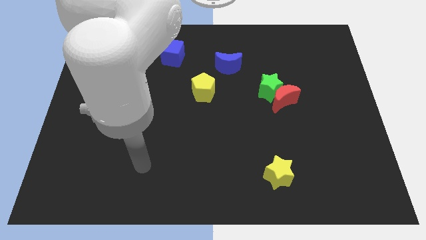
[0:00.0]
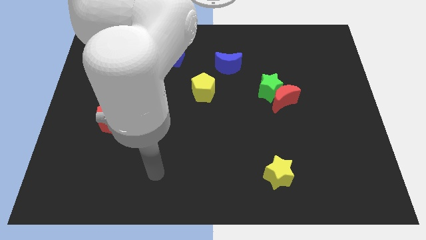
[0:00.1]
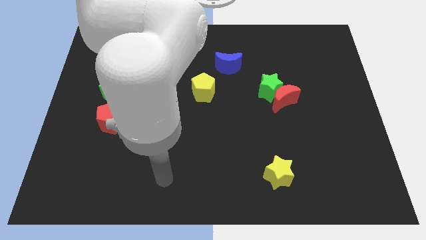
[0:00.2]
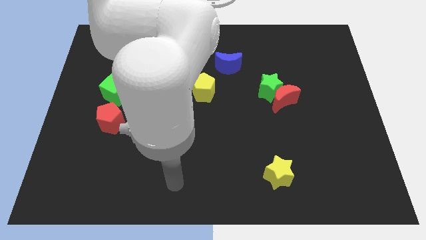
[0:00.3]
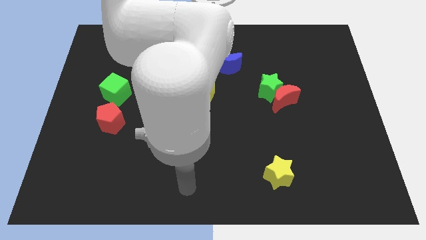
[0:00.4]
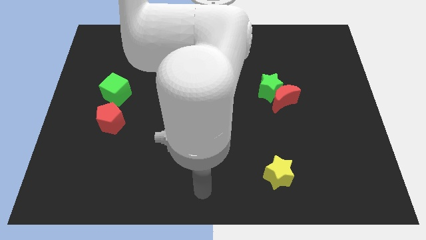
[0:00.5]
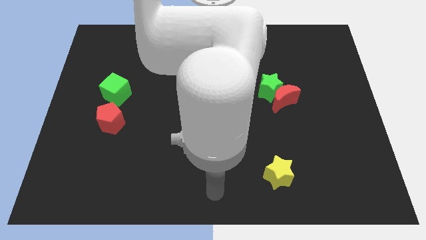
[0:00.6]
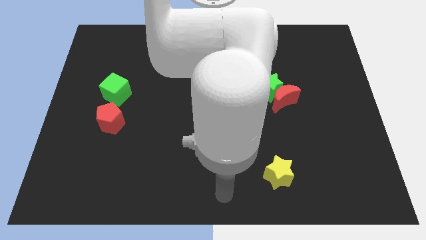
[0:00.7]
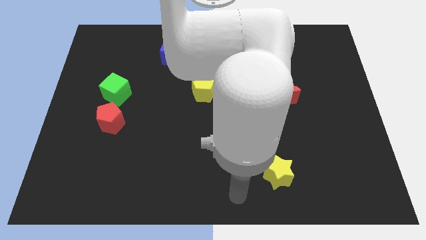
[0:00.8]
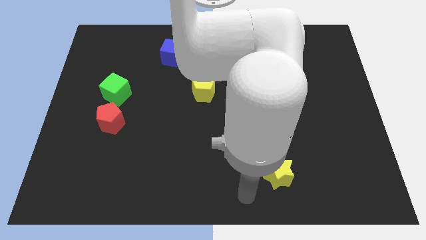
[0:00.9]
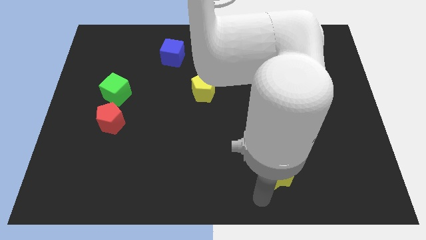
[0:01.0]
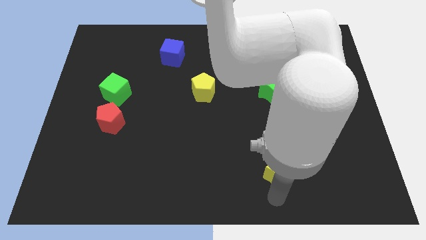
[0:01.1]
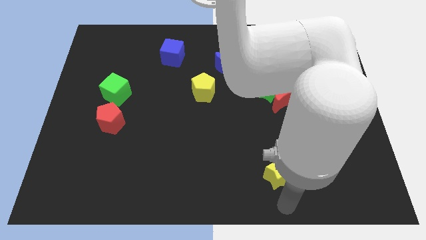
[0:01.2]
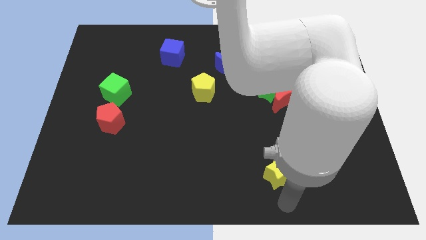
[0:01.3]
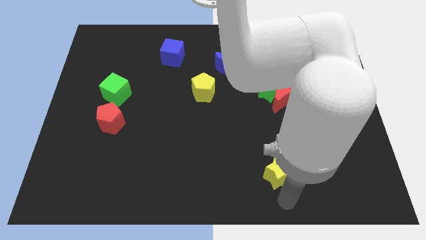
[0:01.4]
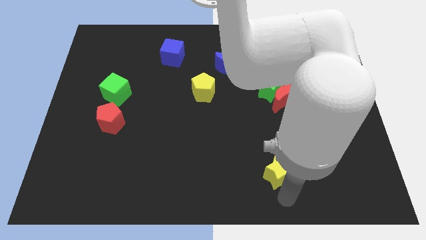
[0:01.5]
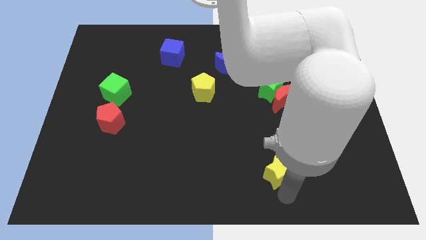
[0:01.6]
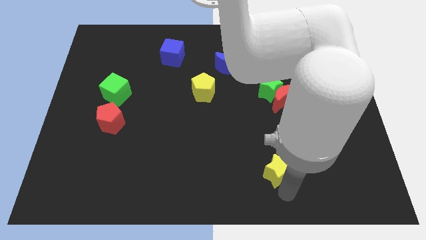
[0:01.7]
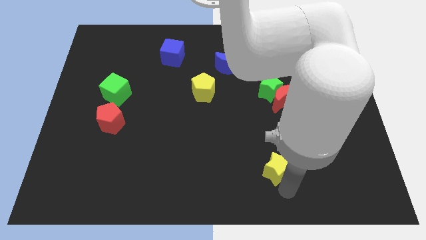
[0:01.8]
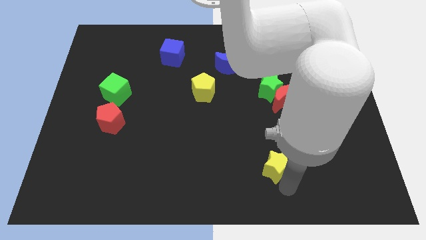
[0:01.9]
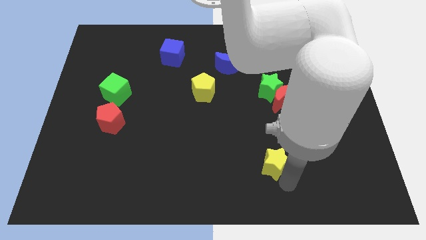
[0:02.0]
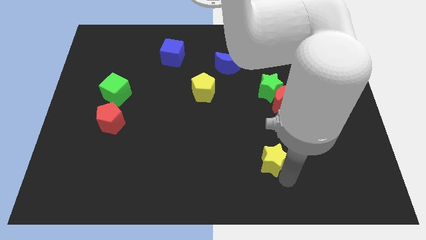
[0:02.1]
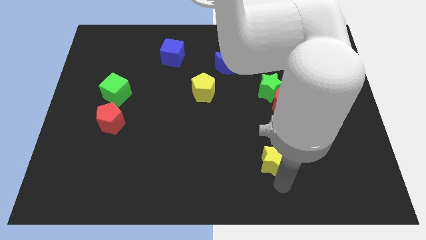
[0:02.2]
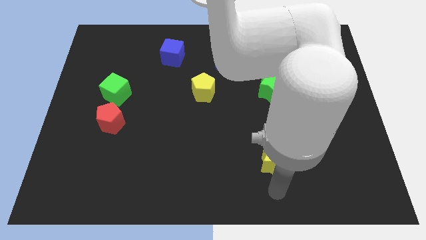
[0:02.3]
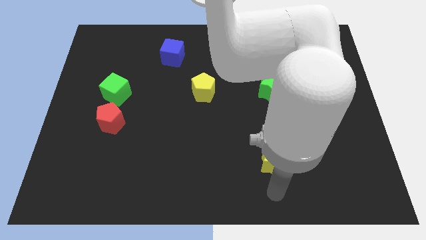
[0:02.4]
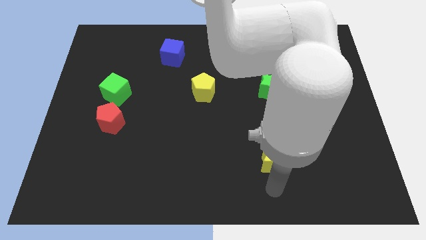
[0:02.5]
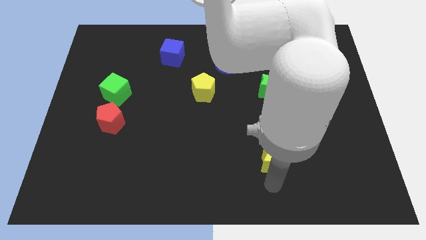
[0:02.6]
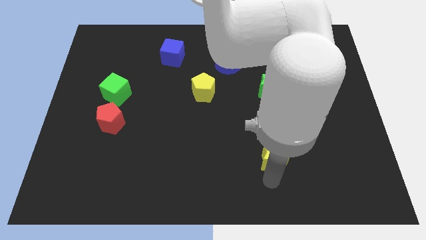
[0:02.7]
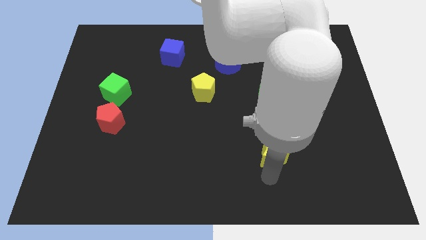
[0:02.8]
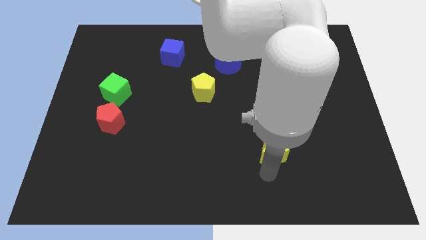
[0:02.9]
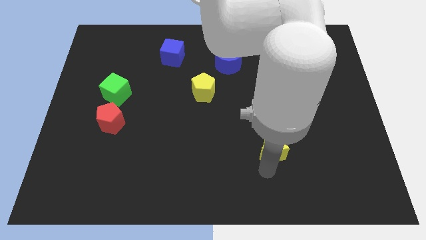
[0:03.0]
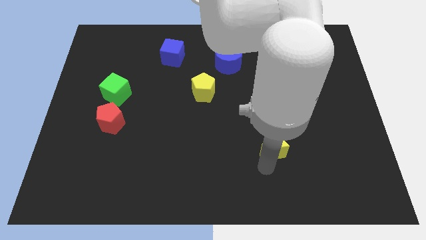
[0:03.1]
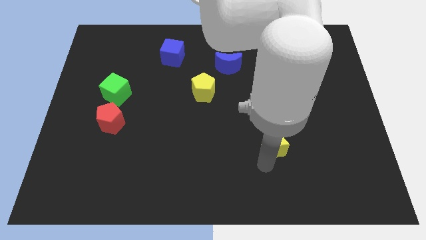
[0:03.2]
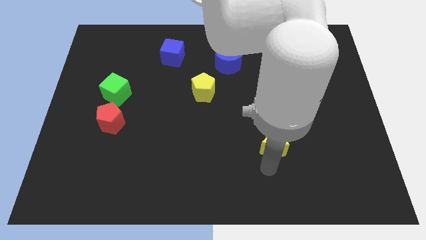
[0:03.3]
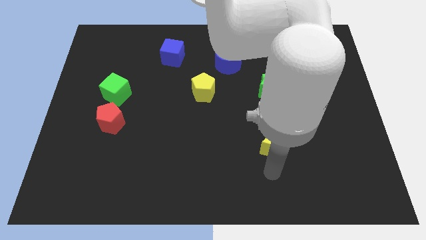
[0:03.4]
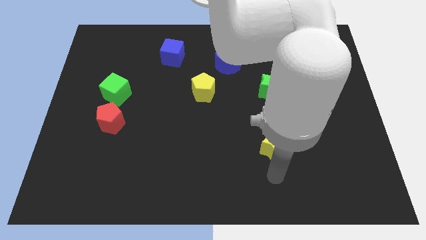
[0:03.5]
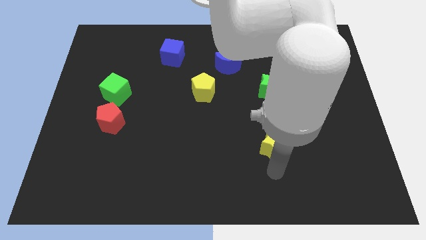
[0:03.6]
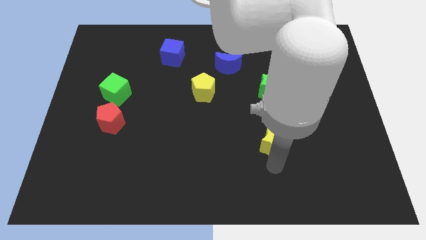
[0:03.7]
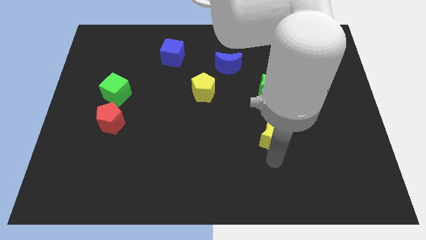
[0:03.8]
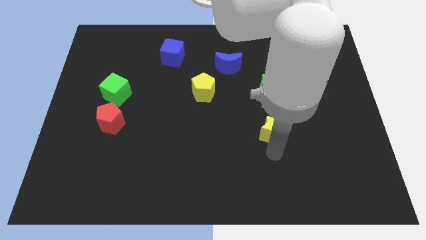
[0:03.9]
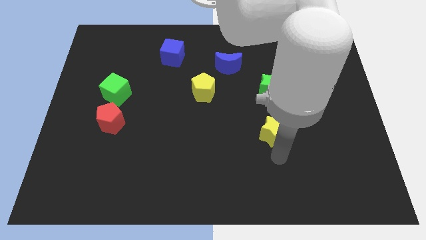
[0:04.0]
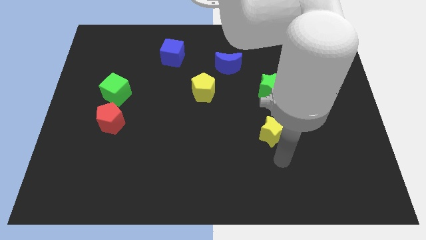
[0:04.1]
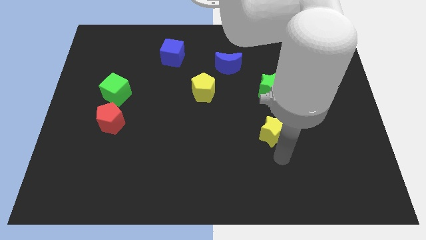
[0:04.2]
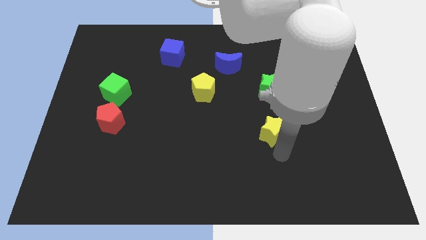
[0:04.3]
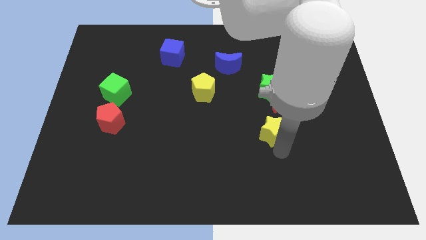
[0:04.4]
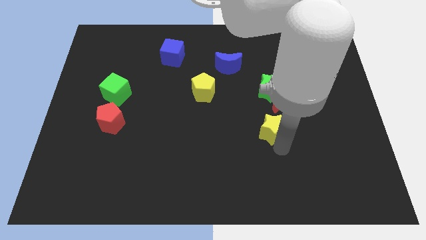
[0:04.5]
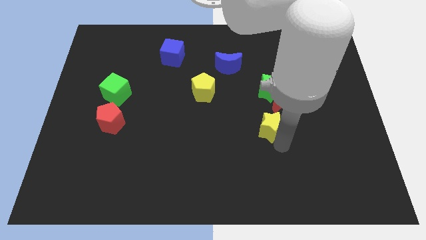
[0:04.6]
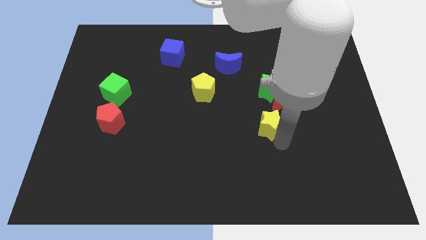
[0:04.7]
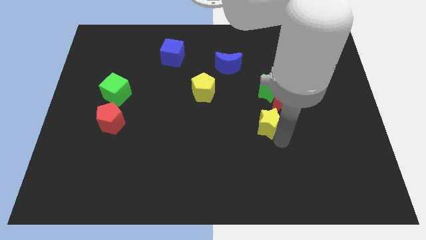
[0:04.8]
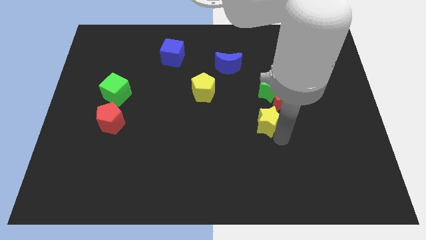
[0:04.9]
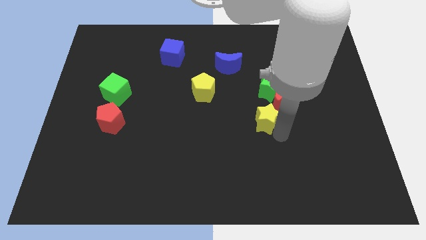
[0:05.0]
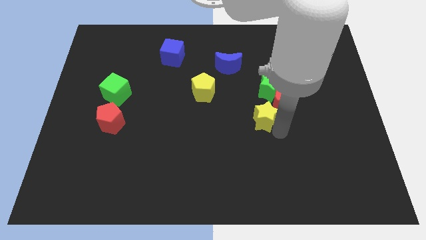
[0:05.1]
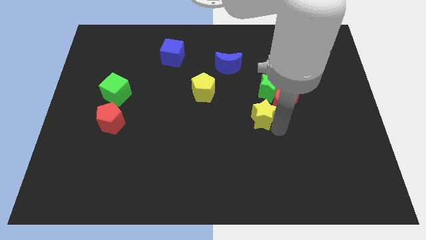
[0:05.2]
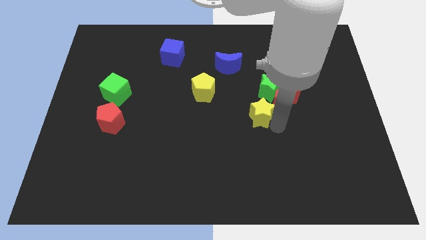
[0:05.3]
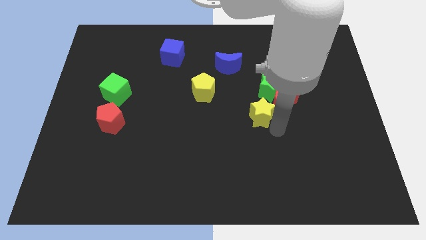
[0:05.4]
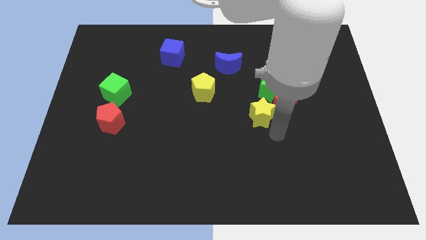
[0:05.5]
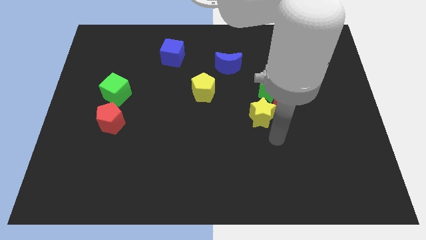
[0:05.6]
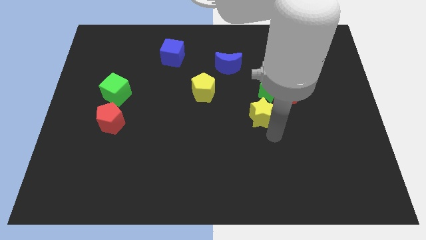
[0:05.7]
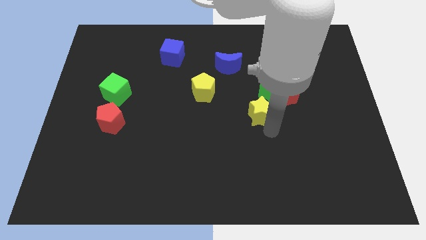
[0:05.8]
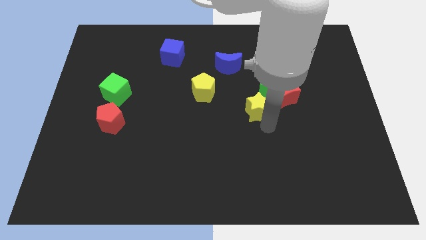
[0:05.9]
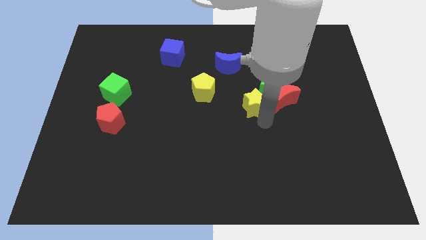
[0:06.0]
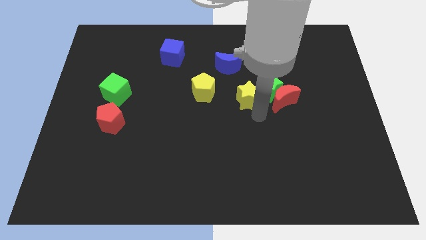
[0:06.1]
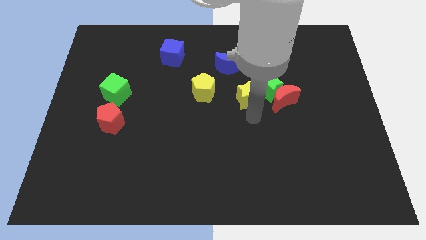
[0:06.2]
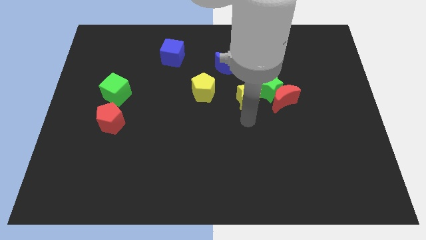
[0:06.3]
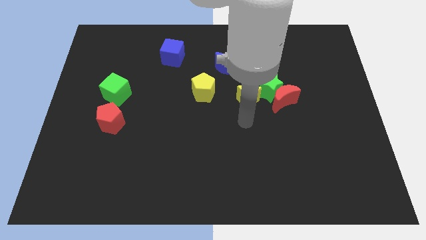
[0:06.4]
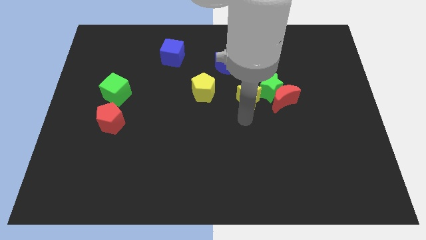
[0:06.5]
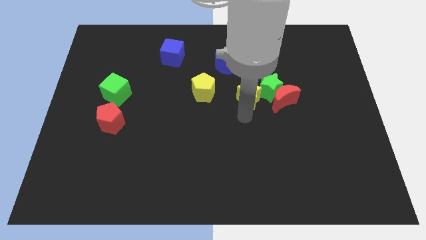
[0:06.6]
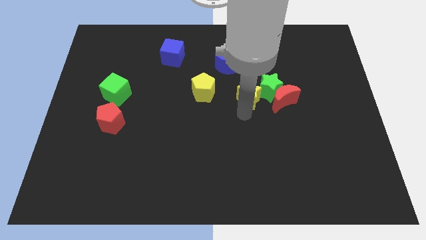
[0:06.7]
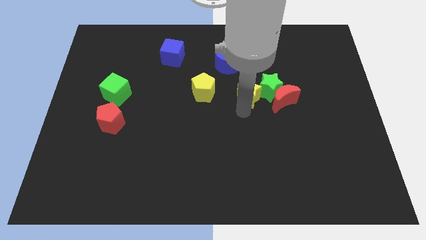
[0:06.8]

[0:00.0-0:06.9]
push the yellow star upwards

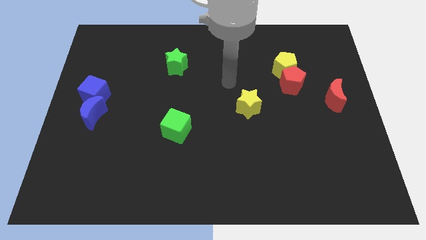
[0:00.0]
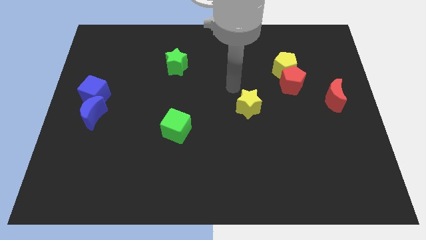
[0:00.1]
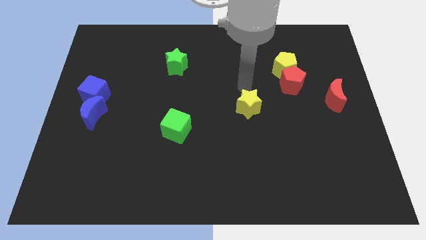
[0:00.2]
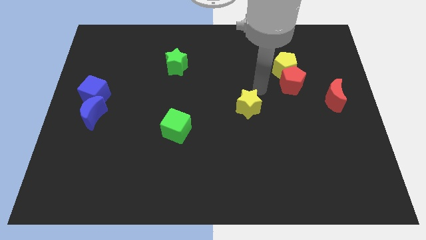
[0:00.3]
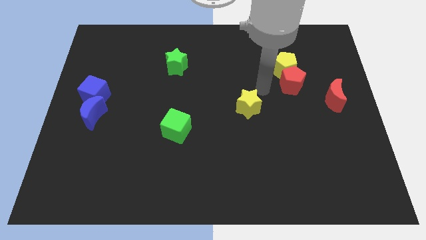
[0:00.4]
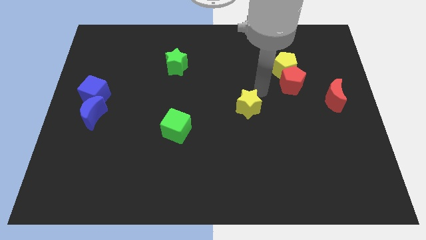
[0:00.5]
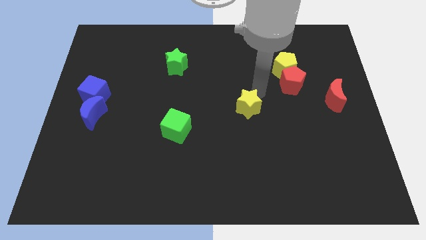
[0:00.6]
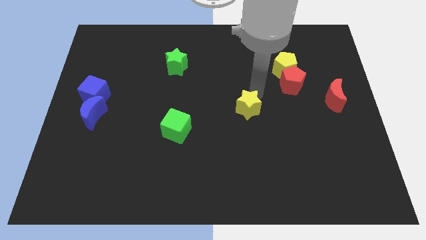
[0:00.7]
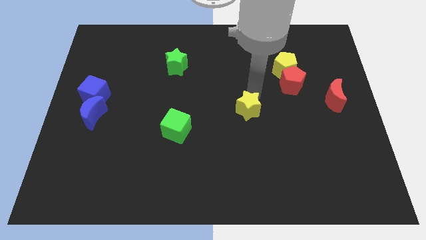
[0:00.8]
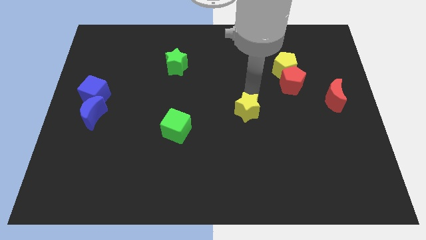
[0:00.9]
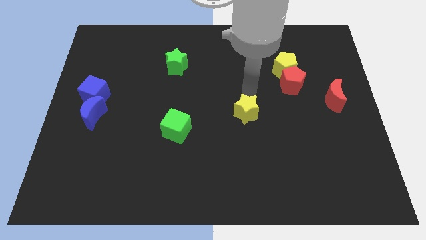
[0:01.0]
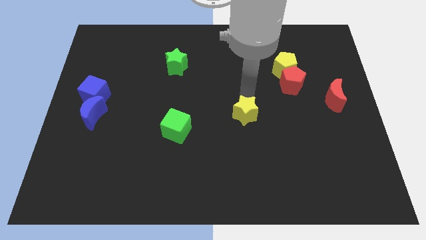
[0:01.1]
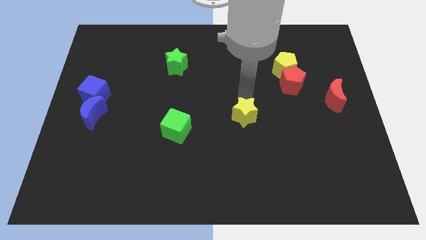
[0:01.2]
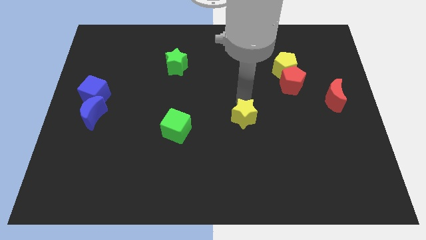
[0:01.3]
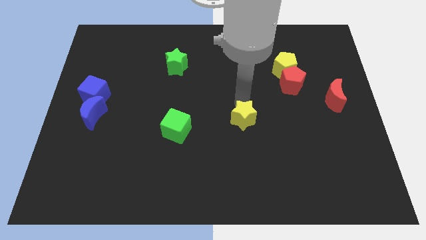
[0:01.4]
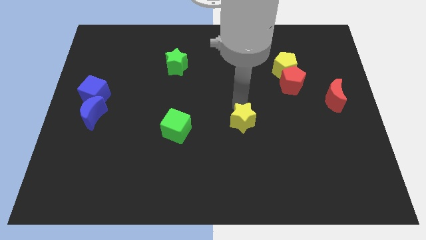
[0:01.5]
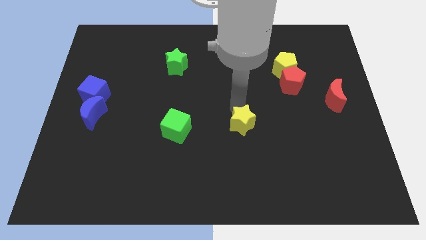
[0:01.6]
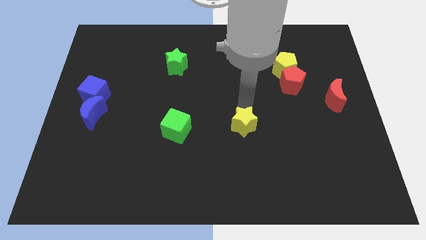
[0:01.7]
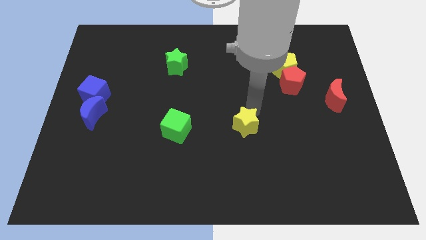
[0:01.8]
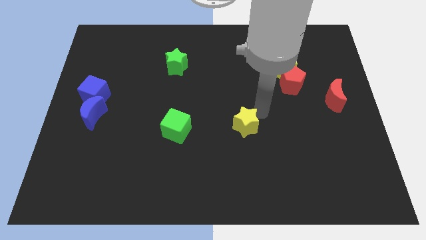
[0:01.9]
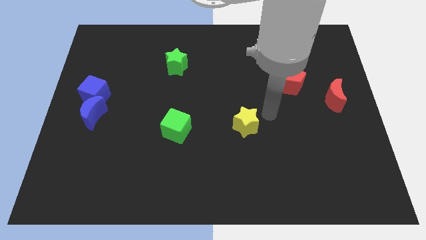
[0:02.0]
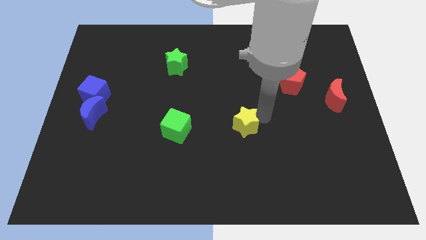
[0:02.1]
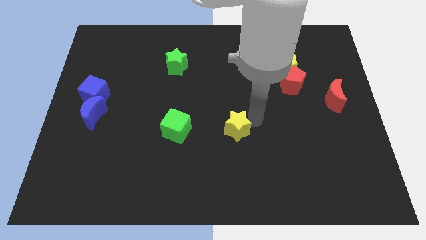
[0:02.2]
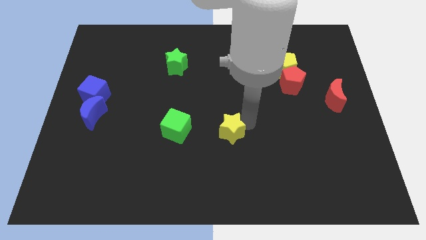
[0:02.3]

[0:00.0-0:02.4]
slightly push the yellow star downwards and left
